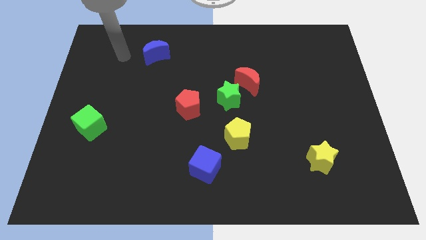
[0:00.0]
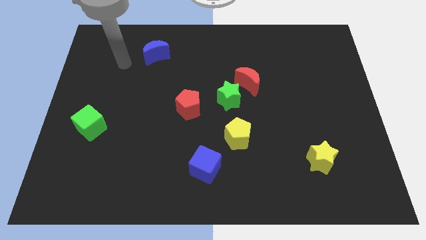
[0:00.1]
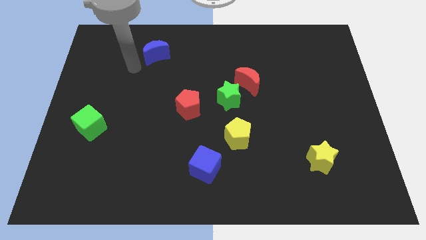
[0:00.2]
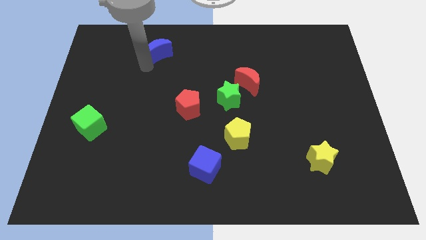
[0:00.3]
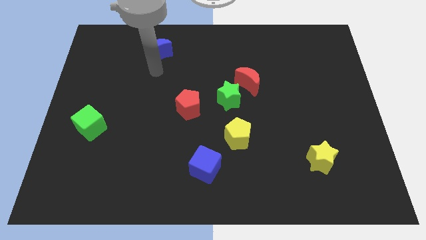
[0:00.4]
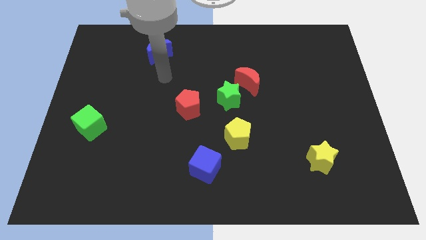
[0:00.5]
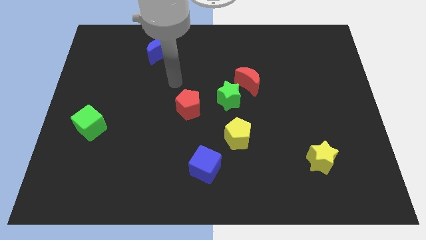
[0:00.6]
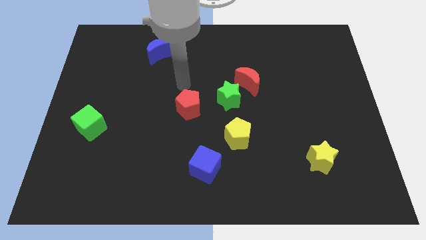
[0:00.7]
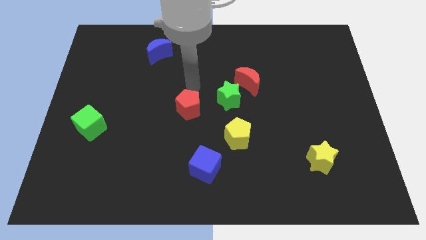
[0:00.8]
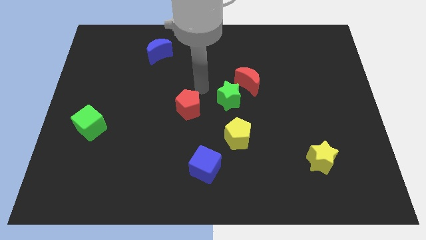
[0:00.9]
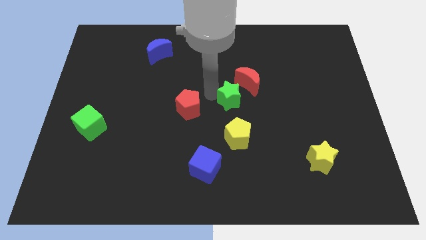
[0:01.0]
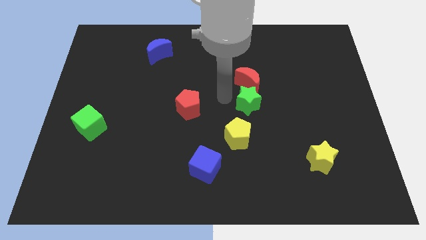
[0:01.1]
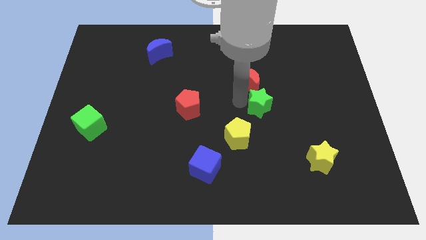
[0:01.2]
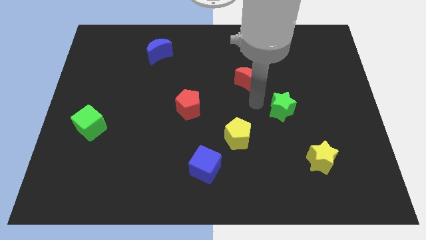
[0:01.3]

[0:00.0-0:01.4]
pull the red moon apart from the green star

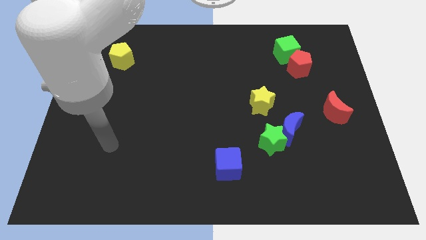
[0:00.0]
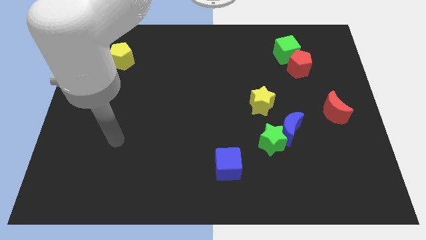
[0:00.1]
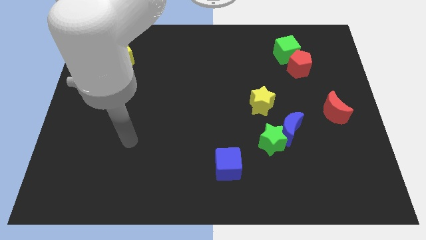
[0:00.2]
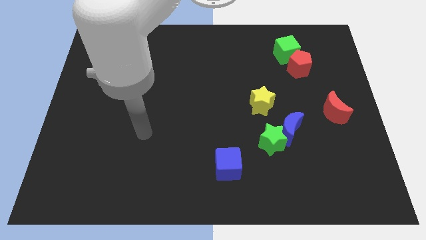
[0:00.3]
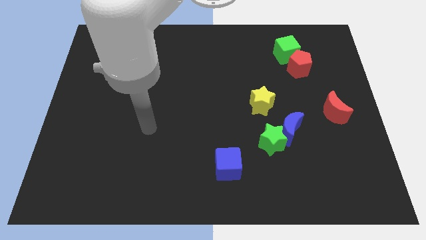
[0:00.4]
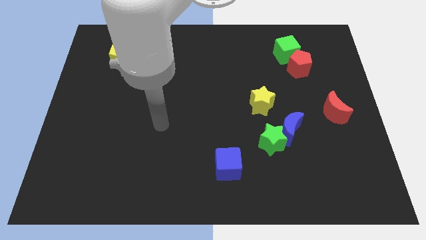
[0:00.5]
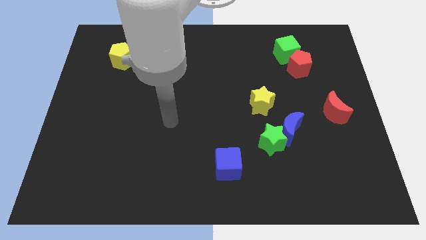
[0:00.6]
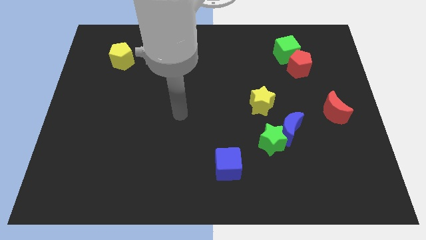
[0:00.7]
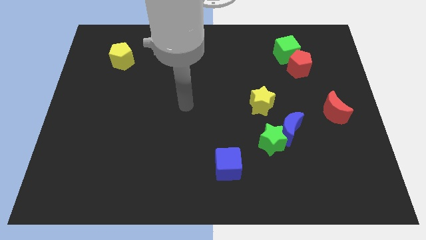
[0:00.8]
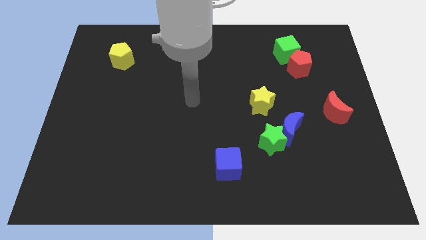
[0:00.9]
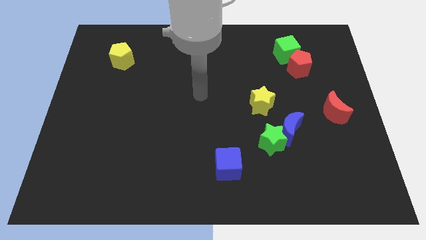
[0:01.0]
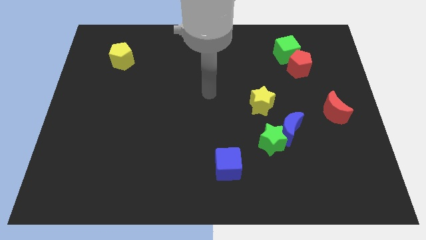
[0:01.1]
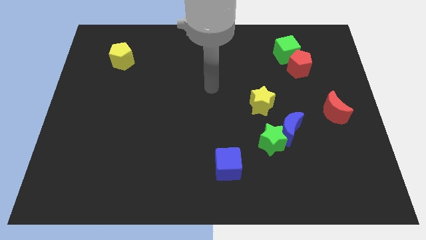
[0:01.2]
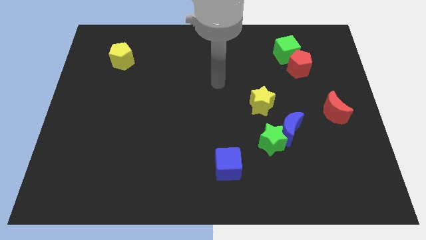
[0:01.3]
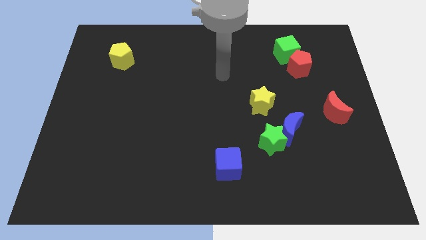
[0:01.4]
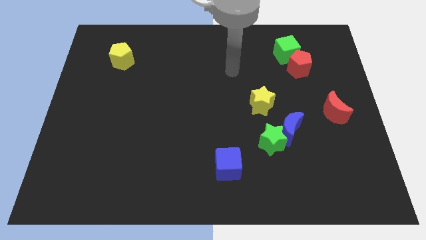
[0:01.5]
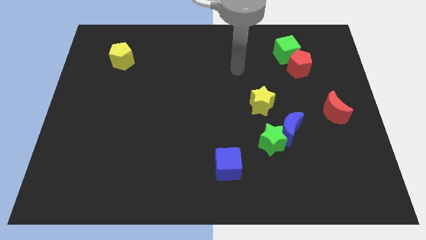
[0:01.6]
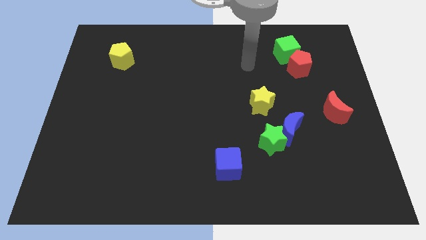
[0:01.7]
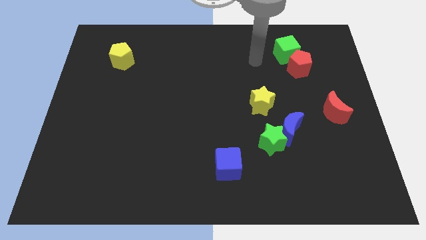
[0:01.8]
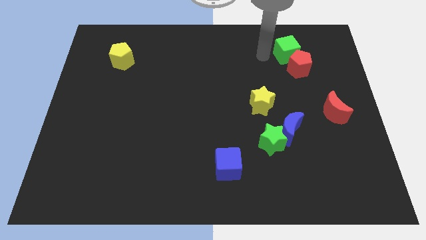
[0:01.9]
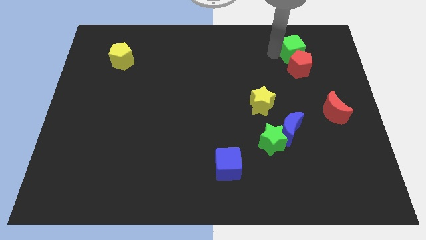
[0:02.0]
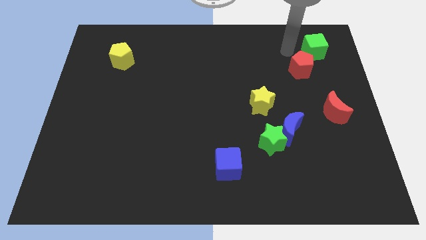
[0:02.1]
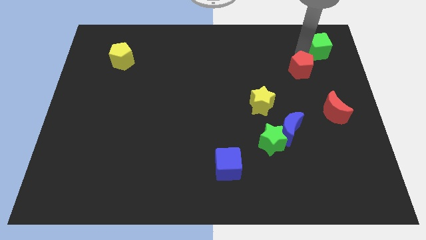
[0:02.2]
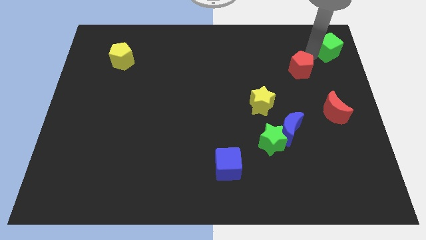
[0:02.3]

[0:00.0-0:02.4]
pull the red pentagon apart from the green cube

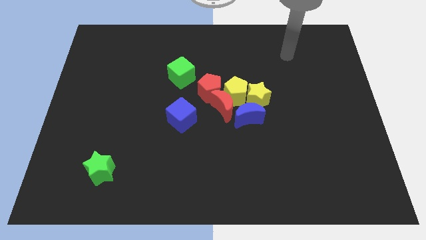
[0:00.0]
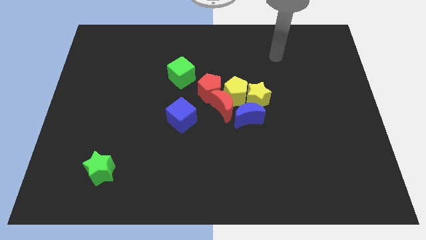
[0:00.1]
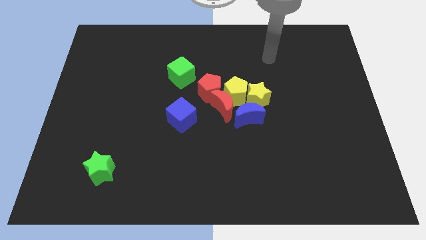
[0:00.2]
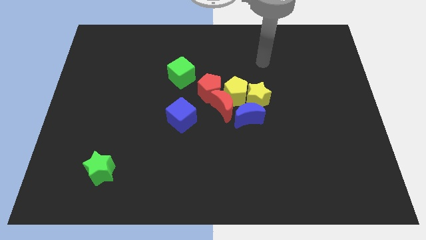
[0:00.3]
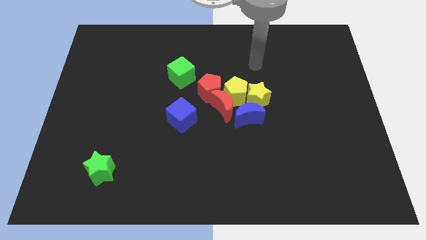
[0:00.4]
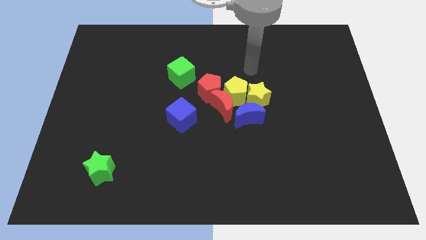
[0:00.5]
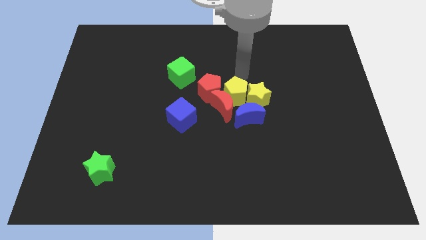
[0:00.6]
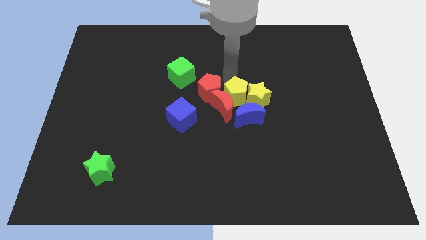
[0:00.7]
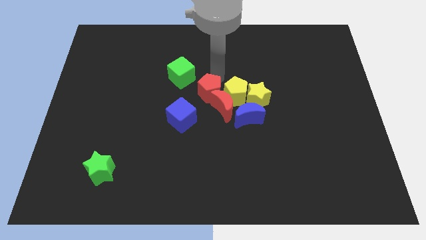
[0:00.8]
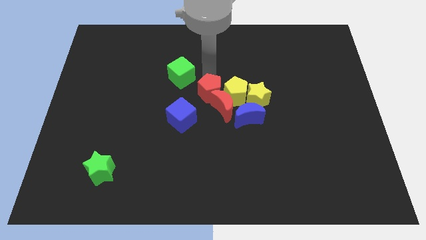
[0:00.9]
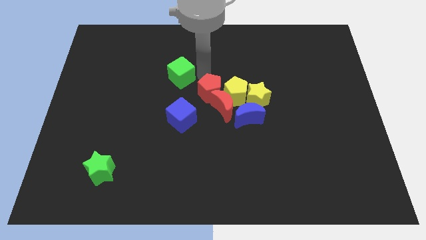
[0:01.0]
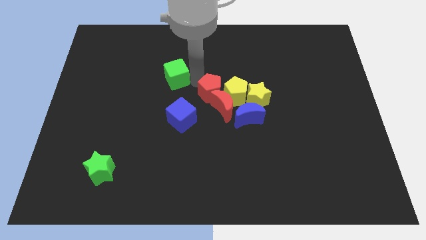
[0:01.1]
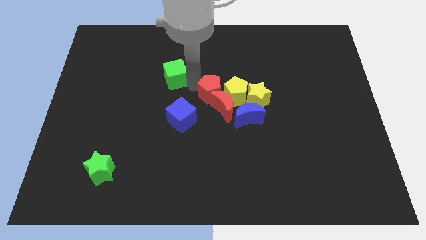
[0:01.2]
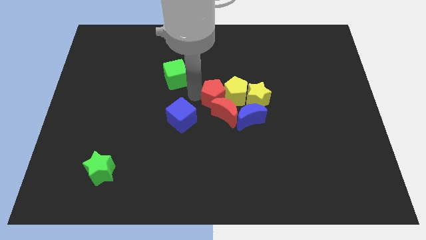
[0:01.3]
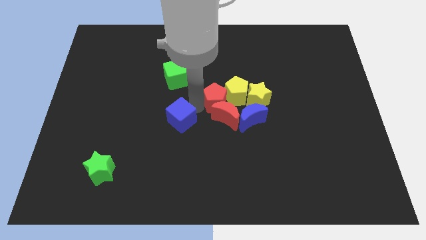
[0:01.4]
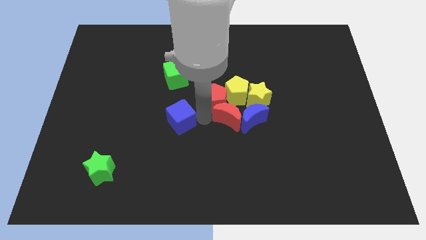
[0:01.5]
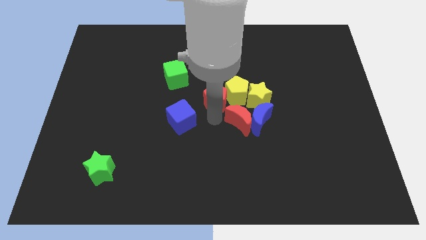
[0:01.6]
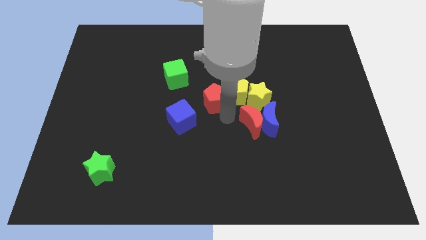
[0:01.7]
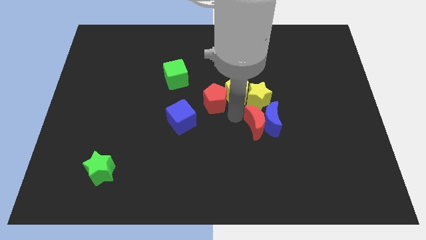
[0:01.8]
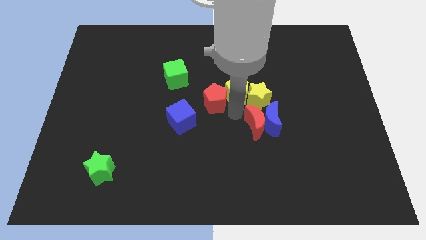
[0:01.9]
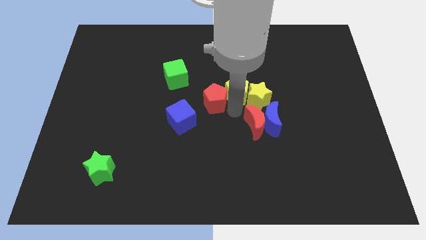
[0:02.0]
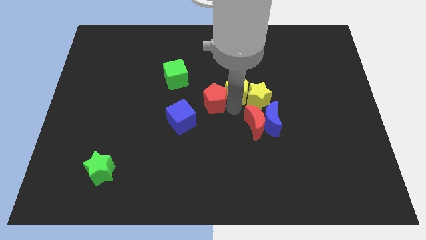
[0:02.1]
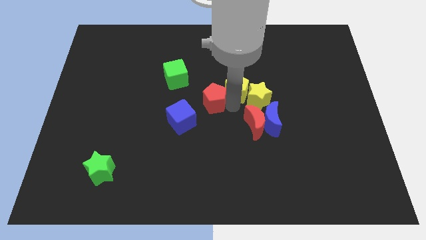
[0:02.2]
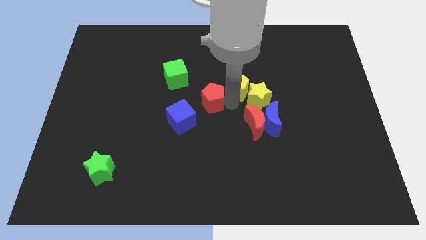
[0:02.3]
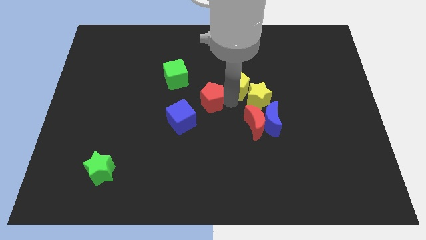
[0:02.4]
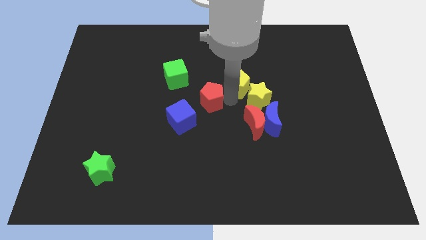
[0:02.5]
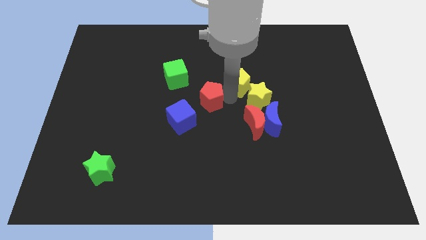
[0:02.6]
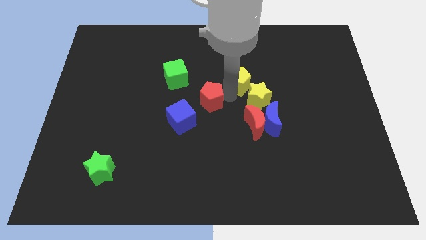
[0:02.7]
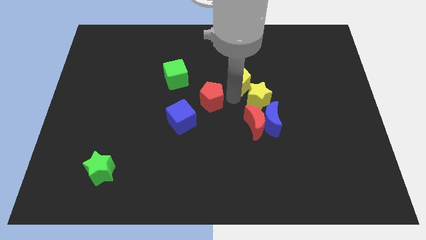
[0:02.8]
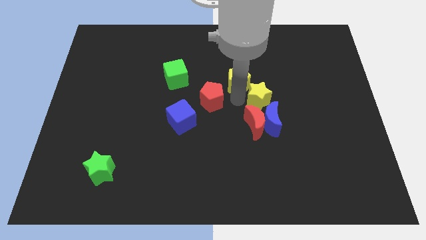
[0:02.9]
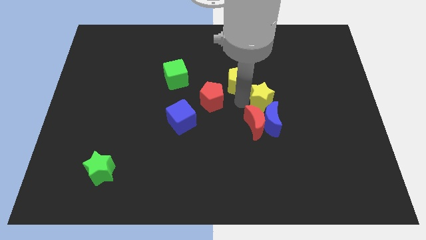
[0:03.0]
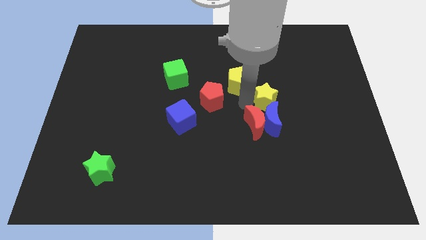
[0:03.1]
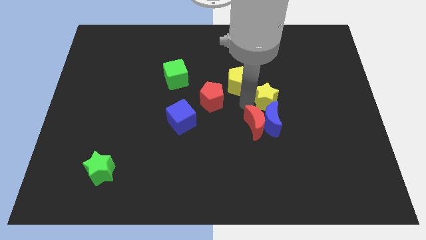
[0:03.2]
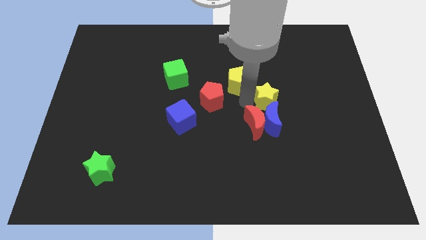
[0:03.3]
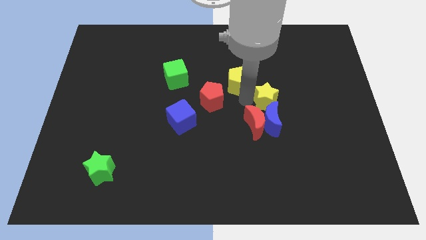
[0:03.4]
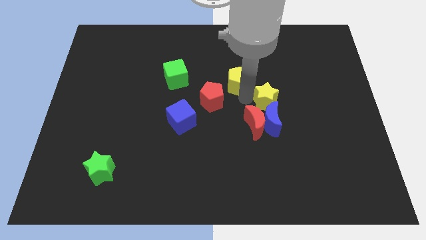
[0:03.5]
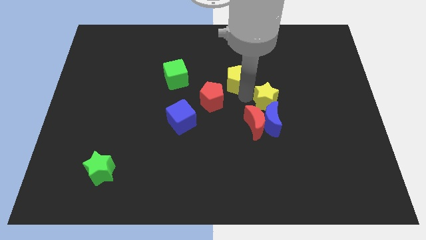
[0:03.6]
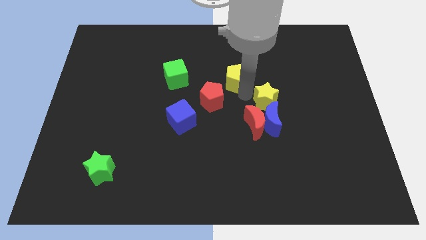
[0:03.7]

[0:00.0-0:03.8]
move the yellow pentagon away from the clump

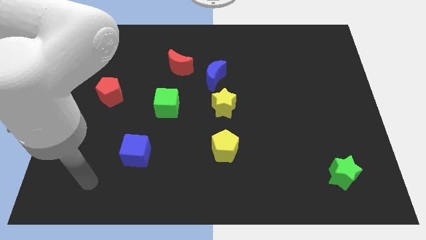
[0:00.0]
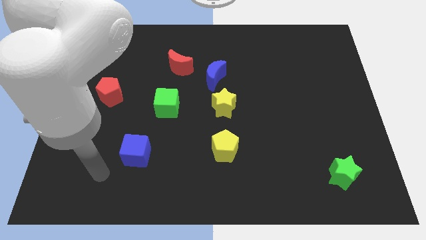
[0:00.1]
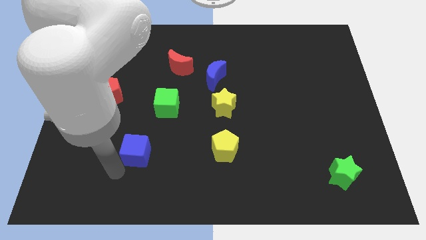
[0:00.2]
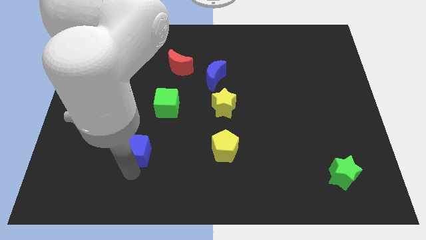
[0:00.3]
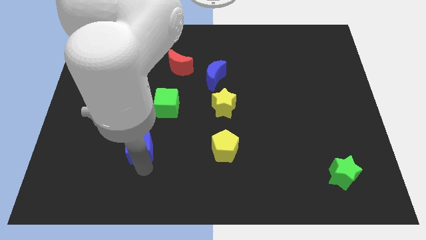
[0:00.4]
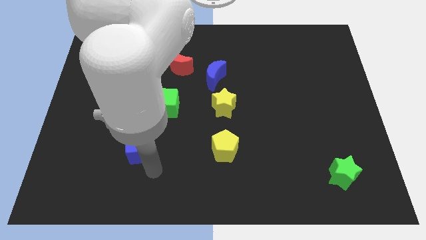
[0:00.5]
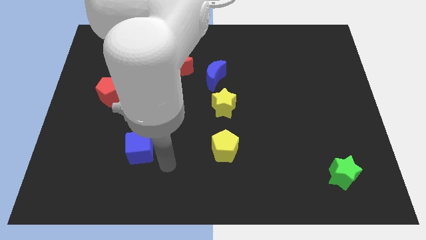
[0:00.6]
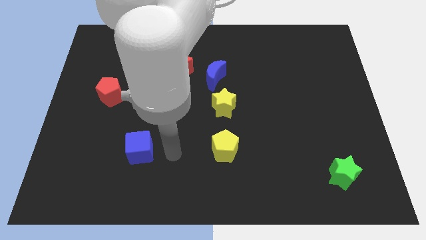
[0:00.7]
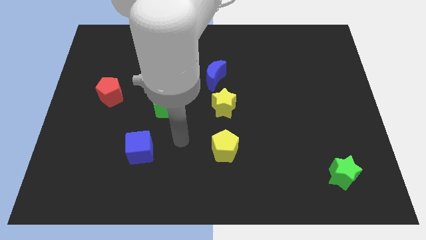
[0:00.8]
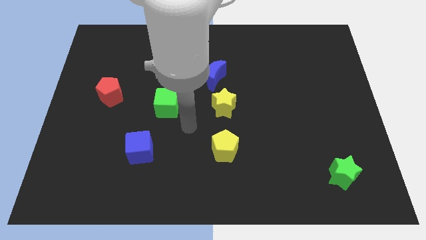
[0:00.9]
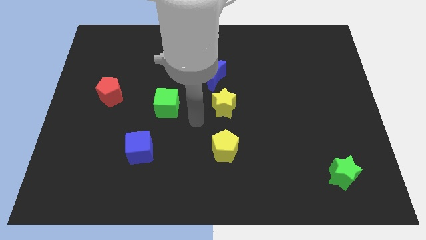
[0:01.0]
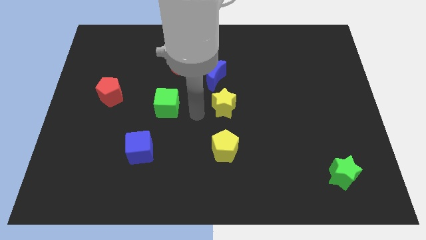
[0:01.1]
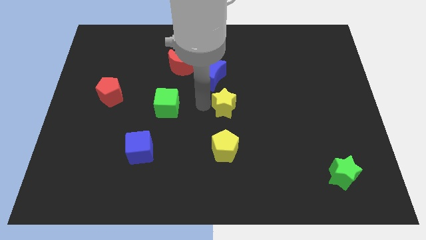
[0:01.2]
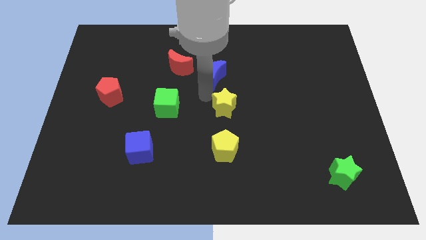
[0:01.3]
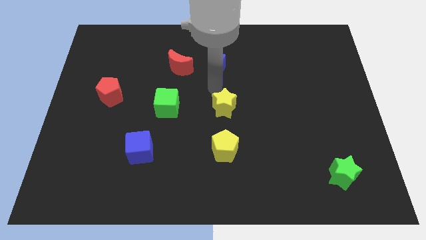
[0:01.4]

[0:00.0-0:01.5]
separate the yellow star from the blue moon

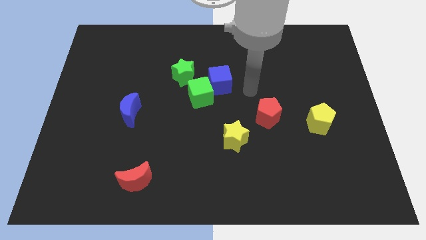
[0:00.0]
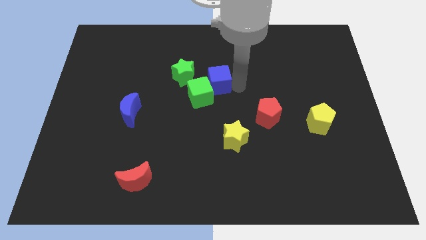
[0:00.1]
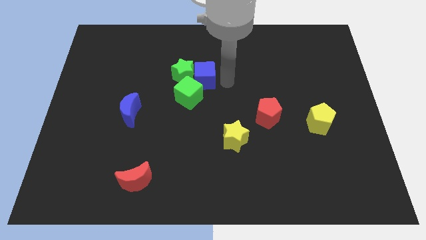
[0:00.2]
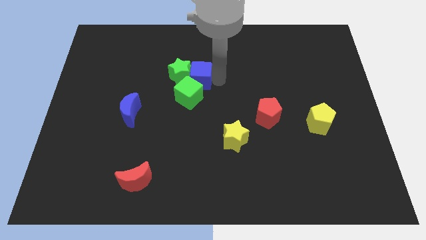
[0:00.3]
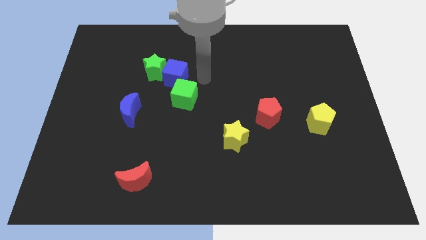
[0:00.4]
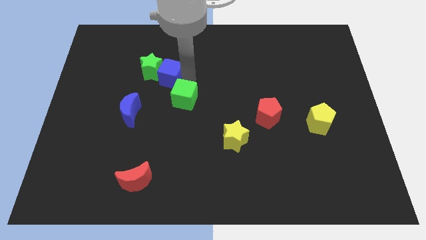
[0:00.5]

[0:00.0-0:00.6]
pull the green cube apart from the blue cube and green star
